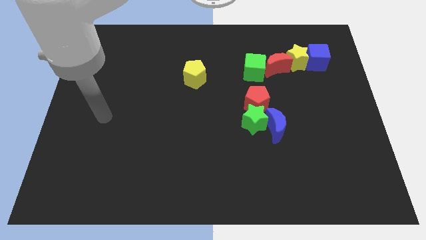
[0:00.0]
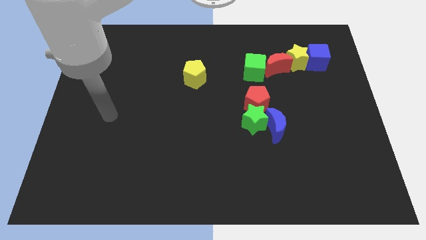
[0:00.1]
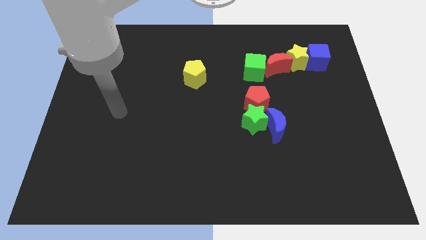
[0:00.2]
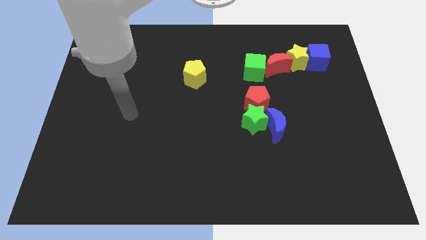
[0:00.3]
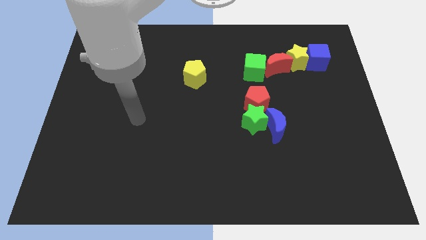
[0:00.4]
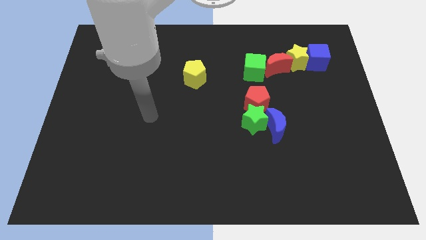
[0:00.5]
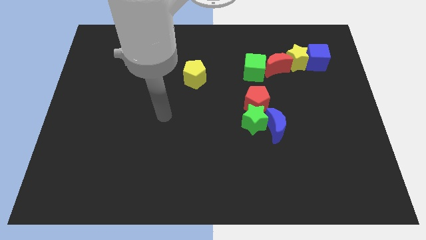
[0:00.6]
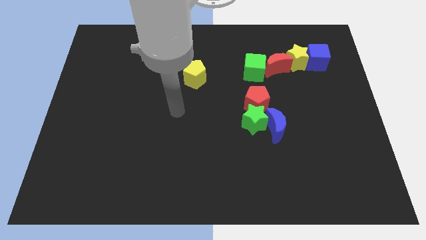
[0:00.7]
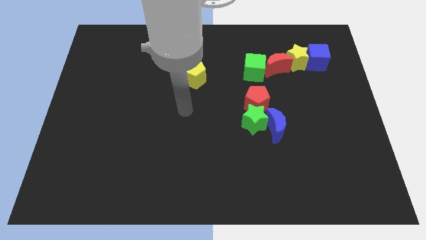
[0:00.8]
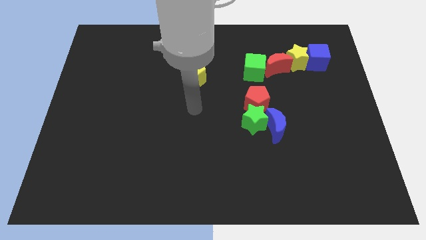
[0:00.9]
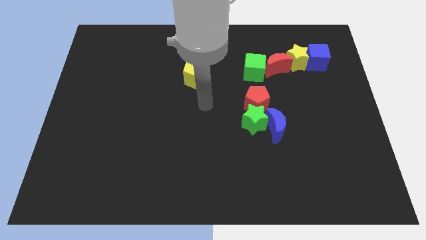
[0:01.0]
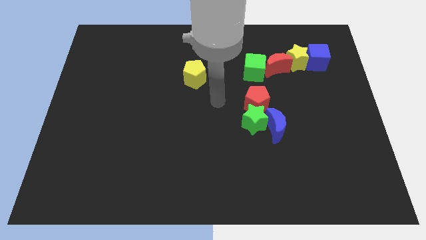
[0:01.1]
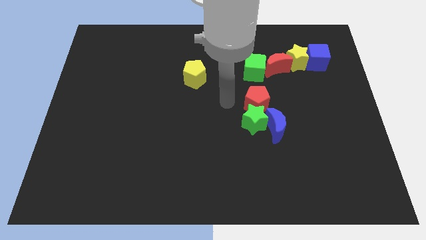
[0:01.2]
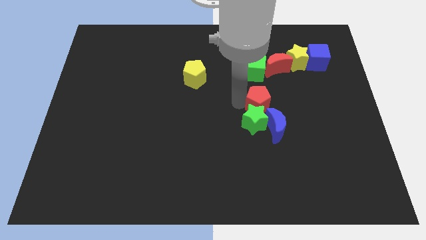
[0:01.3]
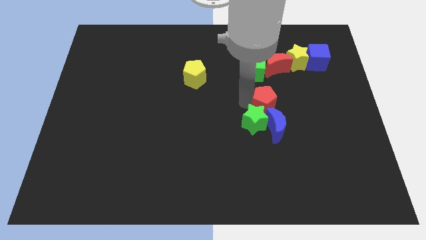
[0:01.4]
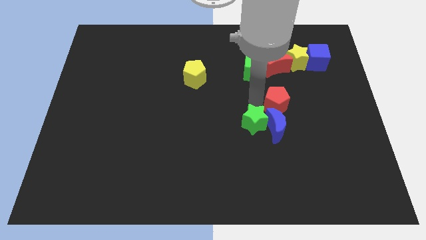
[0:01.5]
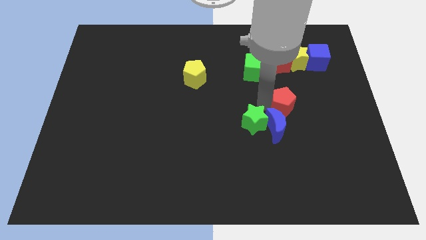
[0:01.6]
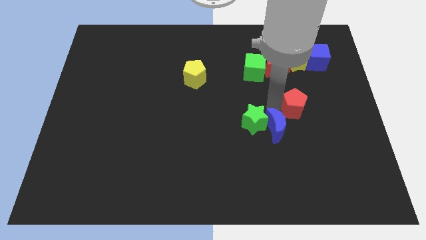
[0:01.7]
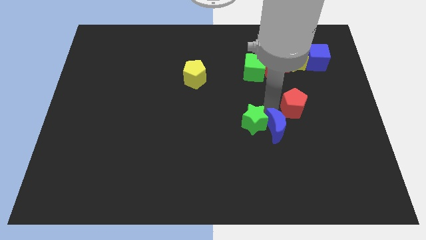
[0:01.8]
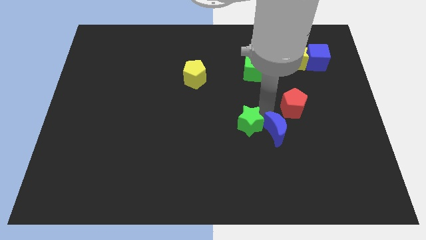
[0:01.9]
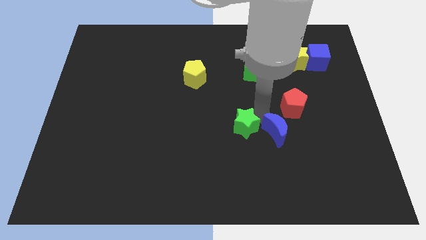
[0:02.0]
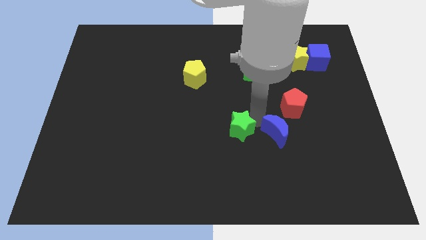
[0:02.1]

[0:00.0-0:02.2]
move the green star away from the blue moon and red pentagon

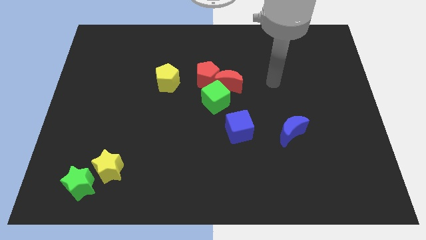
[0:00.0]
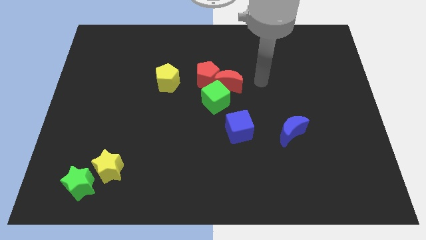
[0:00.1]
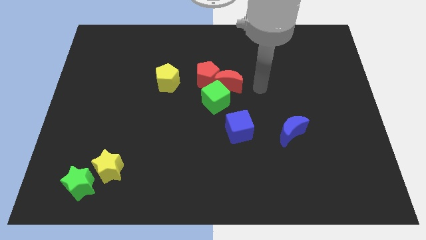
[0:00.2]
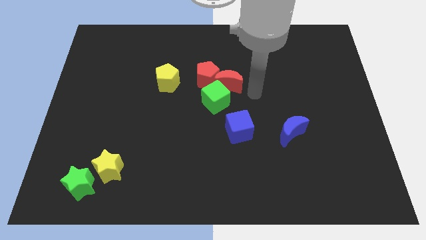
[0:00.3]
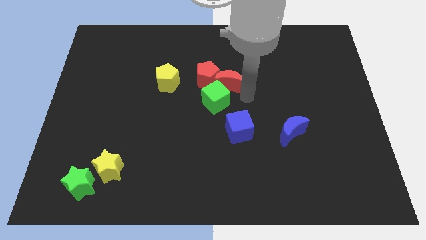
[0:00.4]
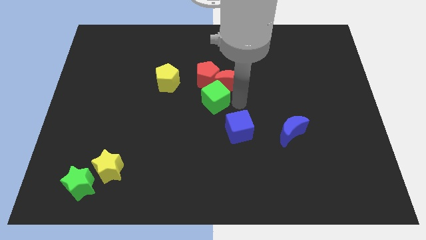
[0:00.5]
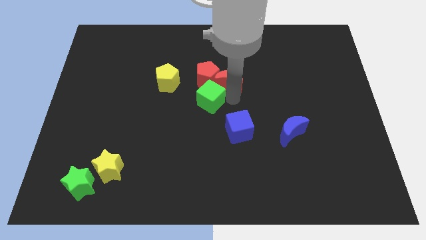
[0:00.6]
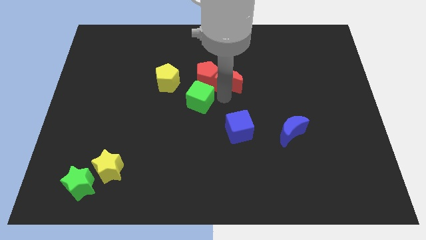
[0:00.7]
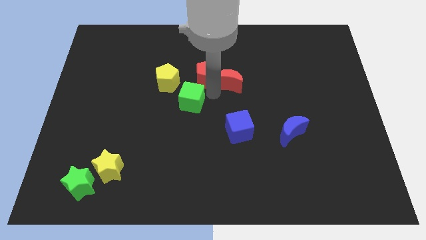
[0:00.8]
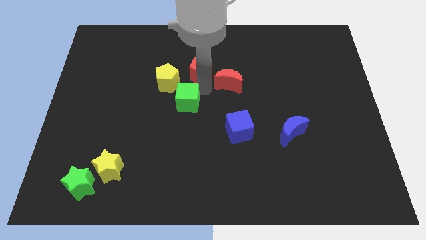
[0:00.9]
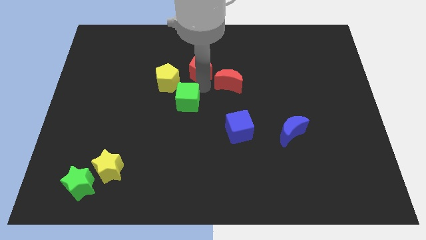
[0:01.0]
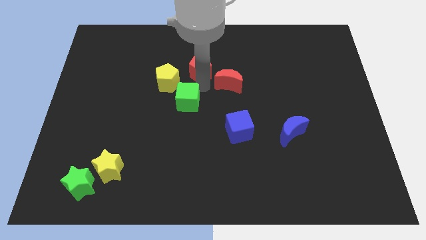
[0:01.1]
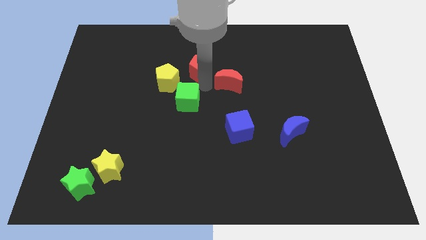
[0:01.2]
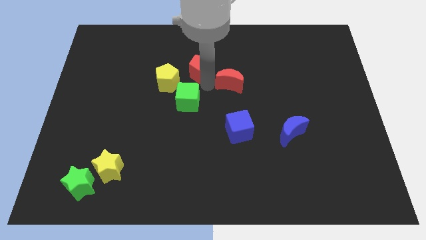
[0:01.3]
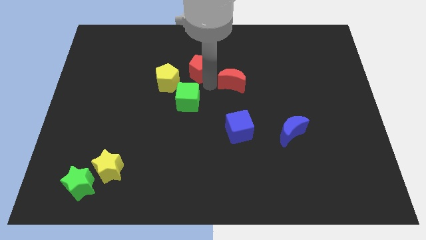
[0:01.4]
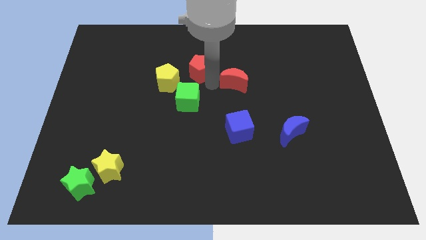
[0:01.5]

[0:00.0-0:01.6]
move the red moon away from the red pentagon and green cube

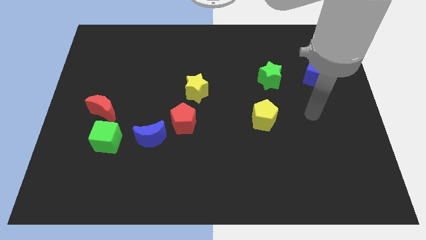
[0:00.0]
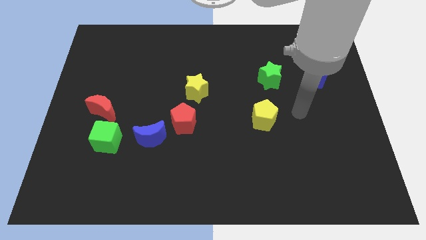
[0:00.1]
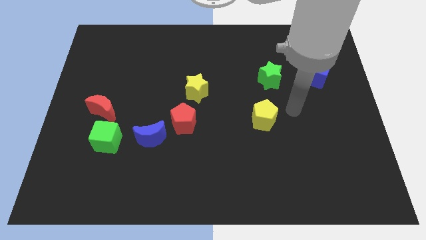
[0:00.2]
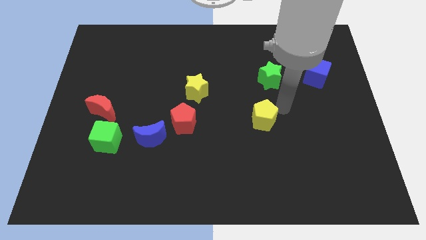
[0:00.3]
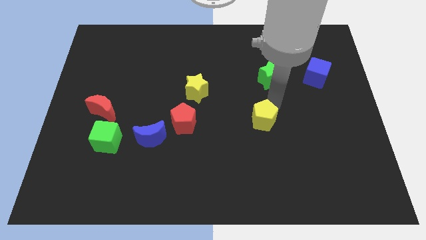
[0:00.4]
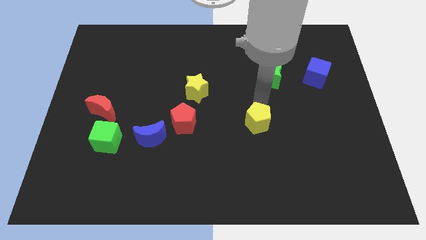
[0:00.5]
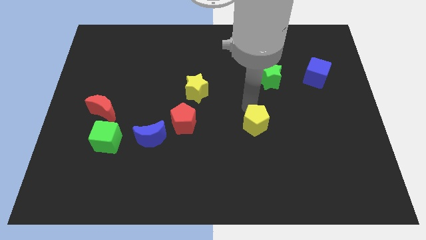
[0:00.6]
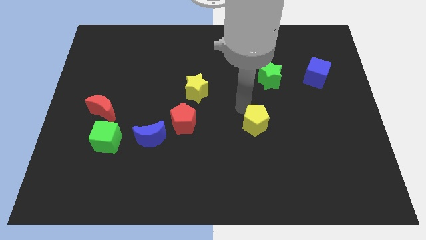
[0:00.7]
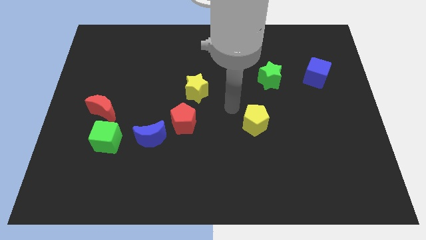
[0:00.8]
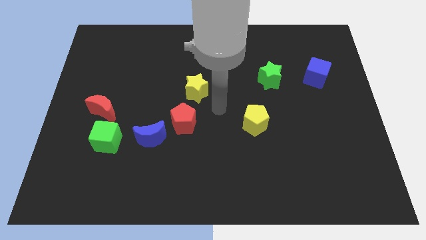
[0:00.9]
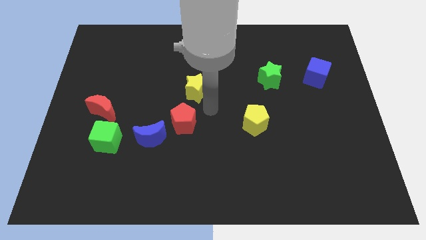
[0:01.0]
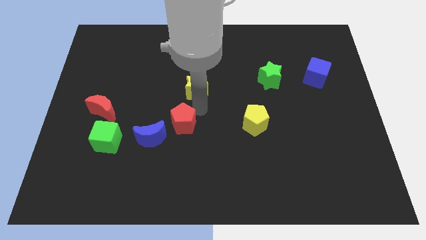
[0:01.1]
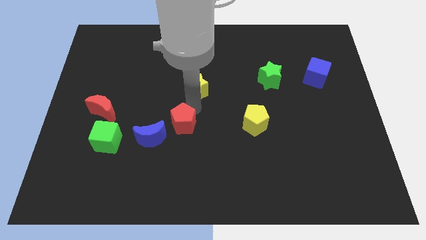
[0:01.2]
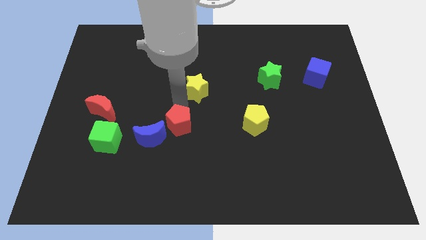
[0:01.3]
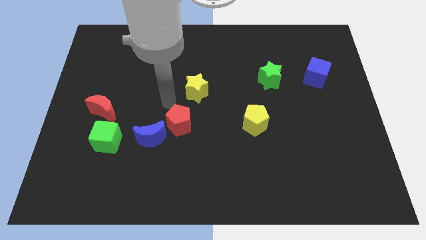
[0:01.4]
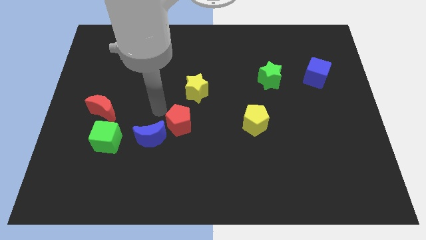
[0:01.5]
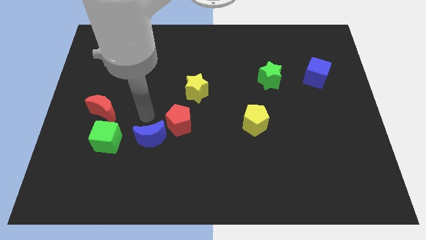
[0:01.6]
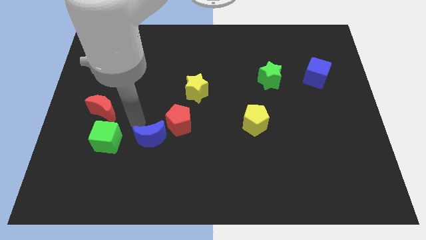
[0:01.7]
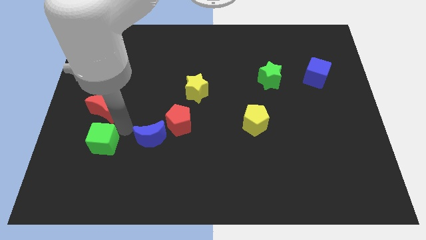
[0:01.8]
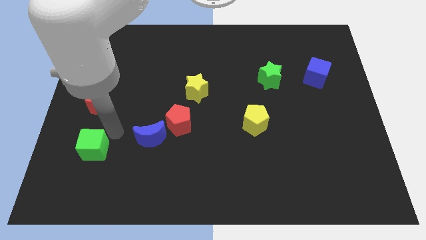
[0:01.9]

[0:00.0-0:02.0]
move the red moon away from the green cube

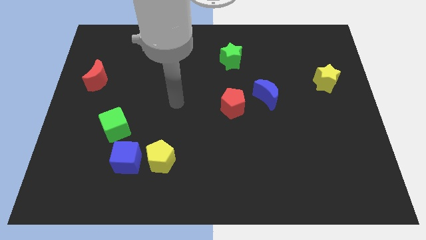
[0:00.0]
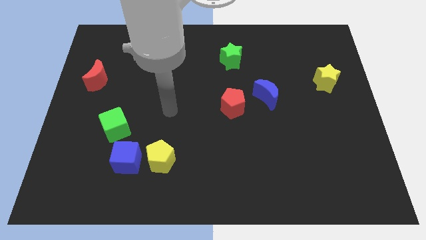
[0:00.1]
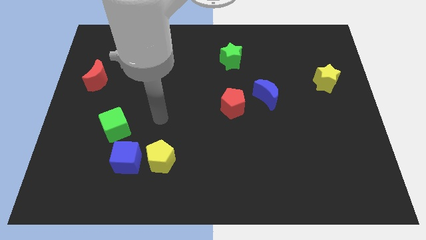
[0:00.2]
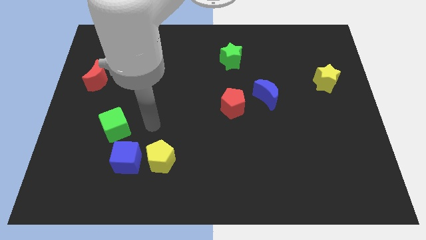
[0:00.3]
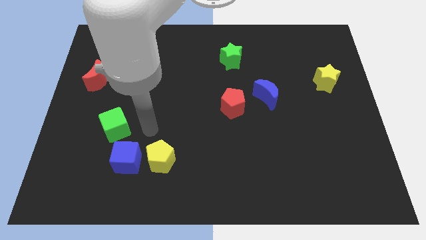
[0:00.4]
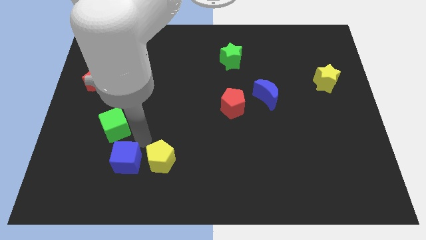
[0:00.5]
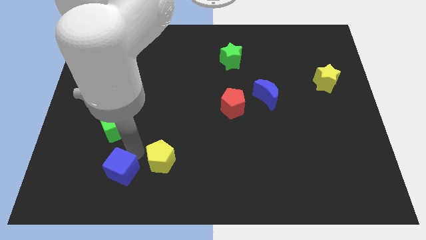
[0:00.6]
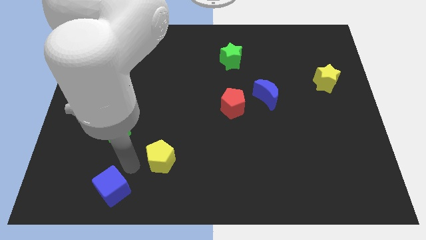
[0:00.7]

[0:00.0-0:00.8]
pull the yellow pentagon apart from the blue cube

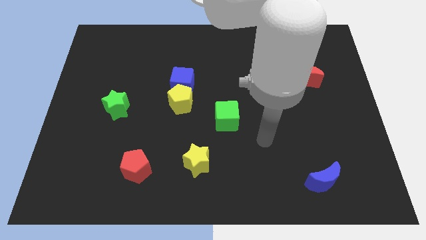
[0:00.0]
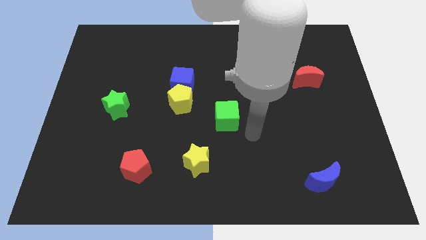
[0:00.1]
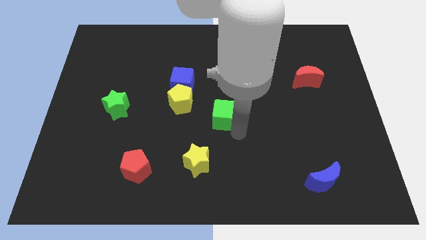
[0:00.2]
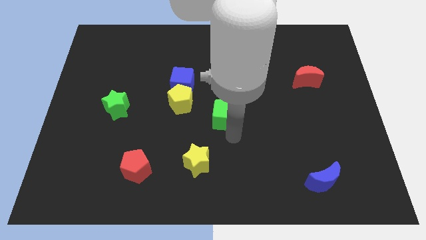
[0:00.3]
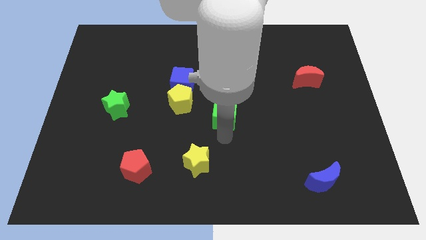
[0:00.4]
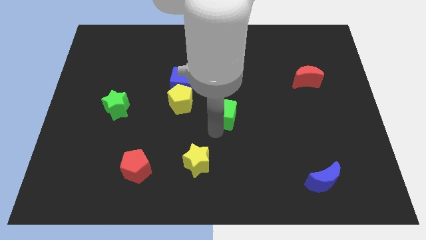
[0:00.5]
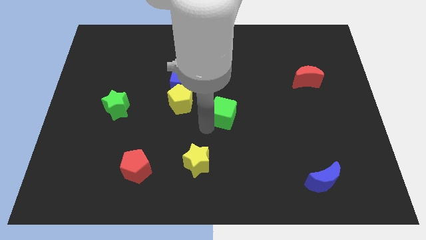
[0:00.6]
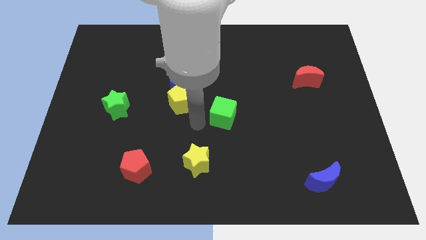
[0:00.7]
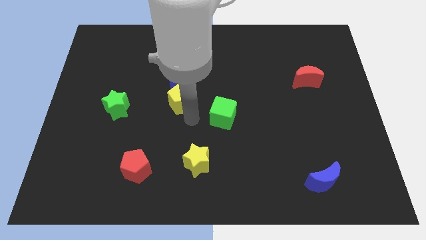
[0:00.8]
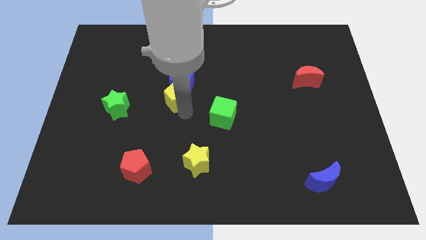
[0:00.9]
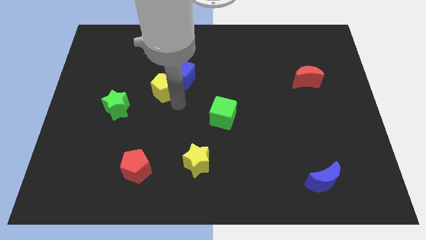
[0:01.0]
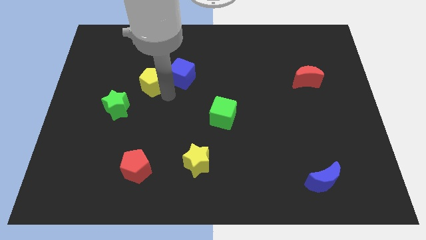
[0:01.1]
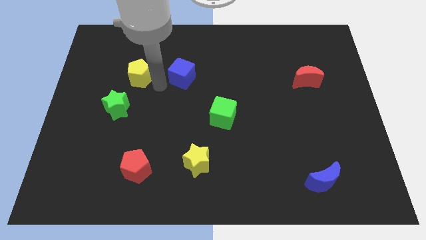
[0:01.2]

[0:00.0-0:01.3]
separate the blue cube from the yellow pentagon

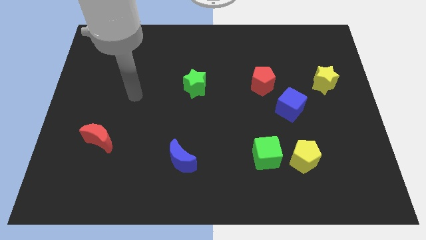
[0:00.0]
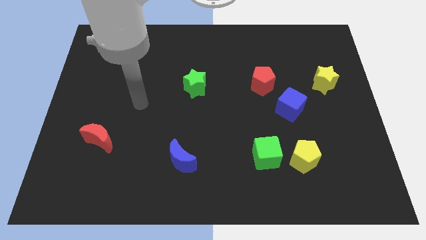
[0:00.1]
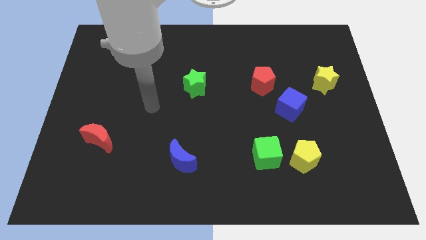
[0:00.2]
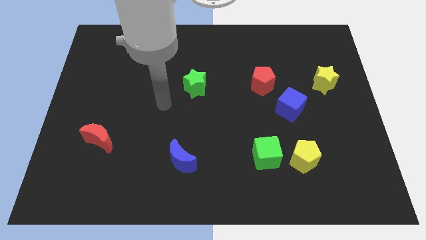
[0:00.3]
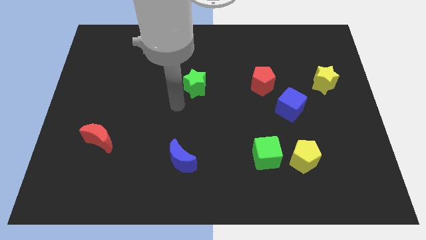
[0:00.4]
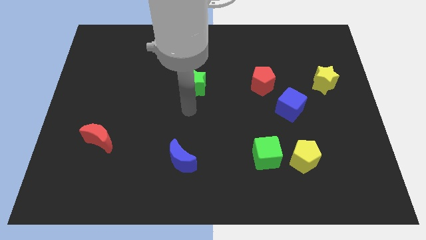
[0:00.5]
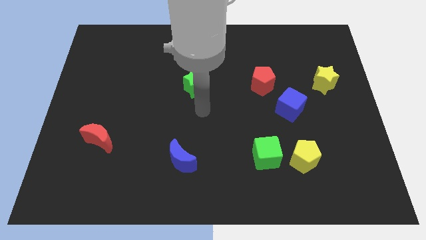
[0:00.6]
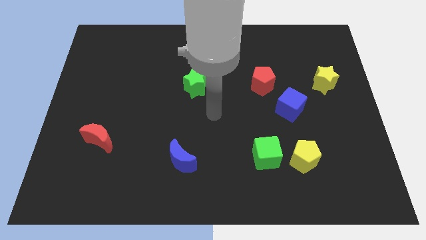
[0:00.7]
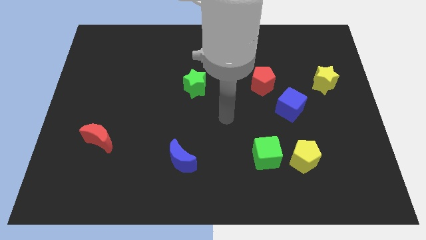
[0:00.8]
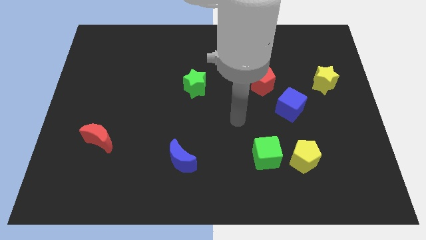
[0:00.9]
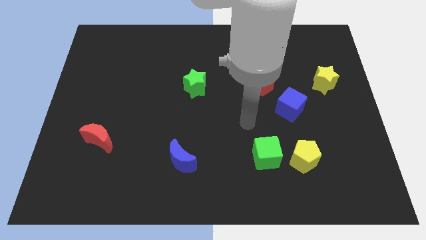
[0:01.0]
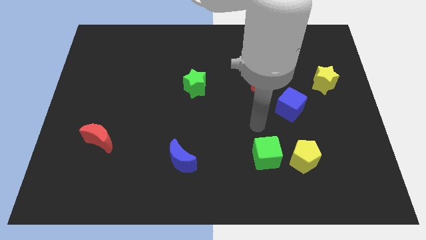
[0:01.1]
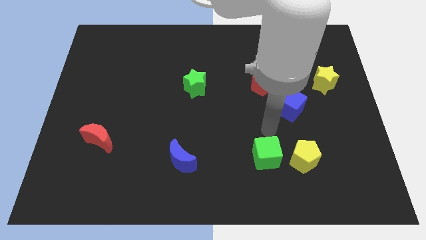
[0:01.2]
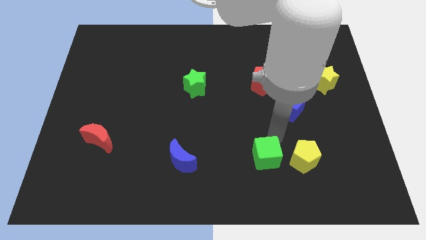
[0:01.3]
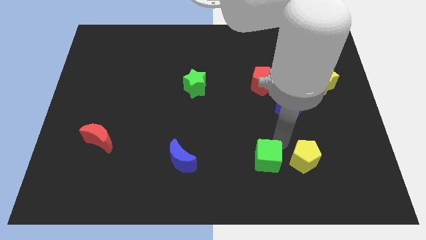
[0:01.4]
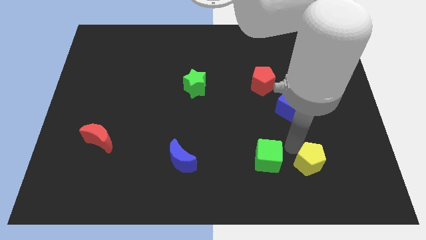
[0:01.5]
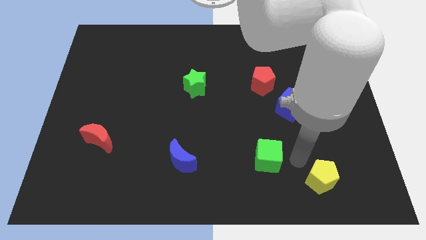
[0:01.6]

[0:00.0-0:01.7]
pull the green cube apart from the yellow pentagon
